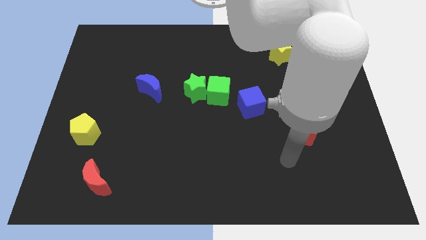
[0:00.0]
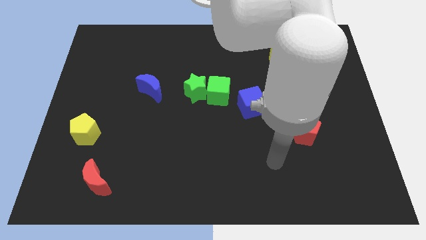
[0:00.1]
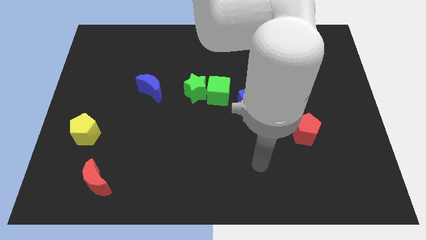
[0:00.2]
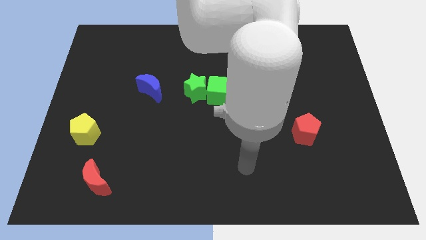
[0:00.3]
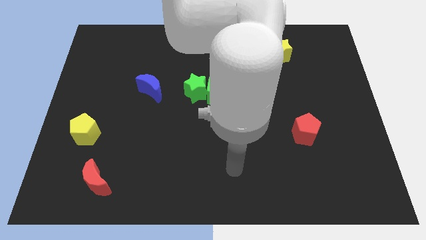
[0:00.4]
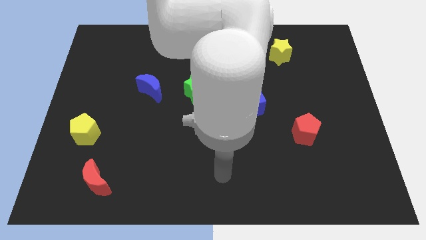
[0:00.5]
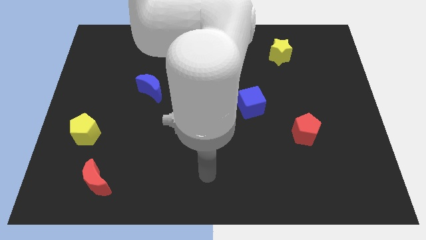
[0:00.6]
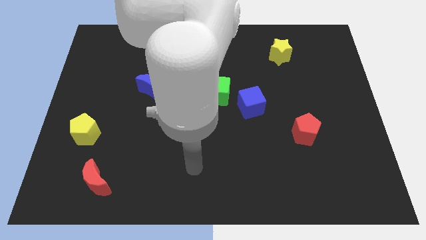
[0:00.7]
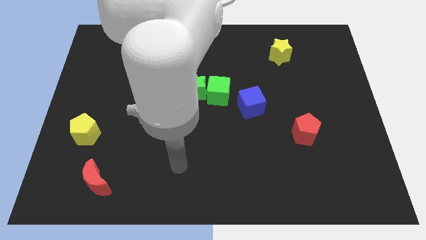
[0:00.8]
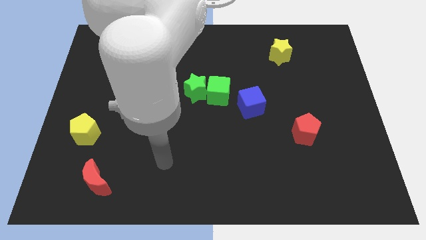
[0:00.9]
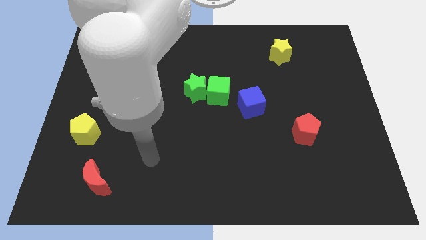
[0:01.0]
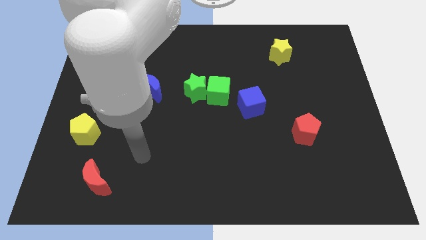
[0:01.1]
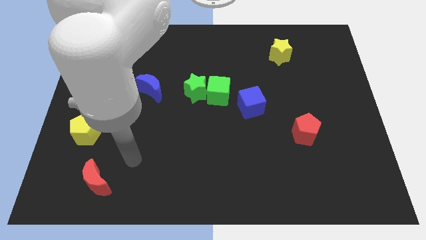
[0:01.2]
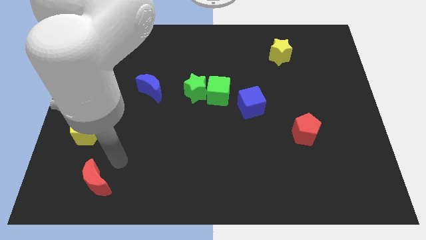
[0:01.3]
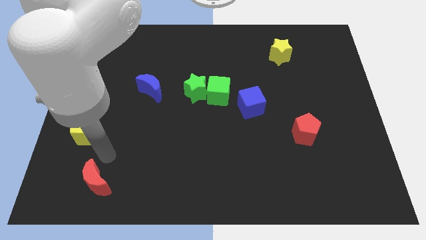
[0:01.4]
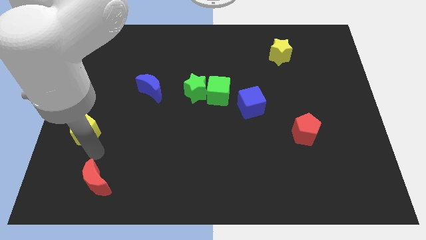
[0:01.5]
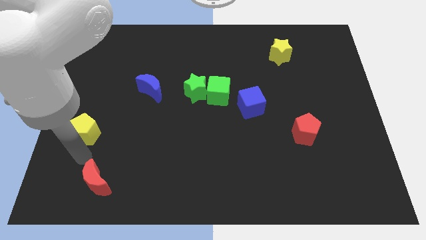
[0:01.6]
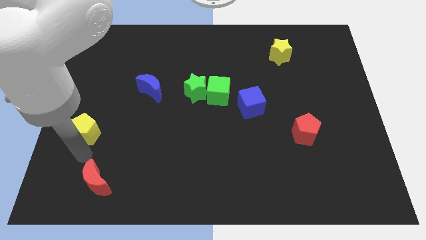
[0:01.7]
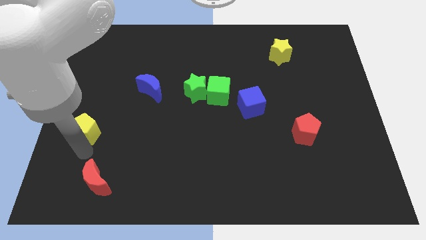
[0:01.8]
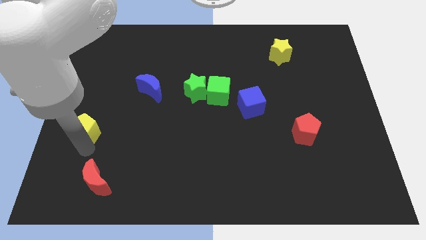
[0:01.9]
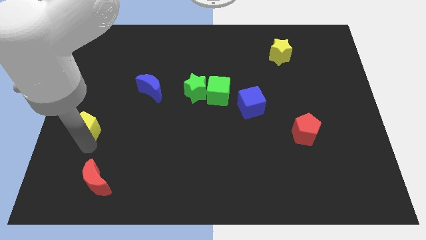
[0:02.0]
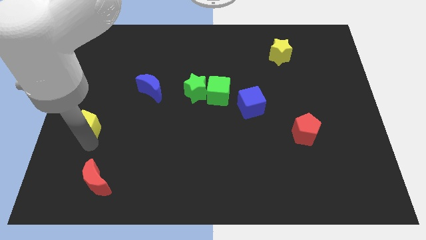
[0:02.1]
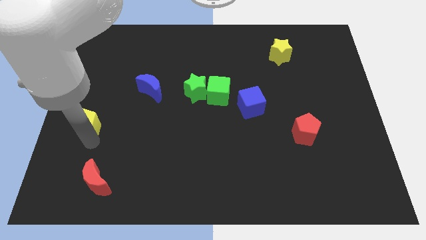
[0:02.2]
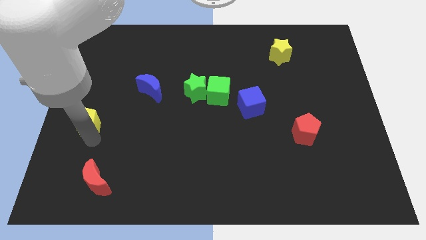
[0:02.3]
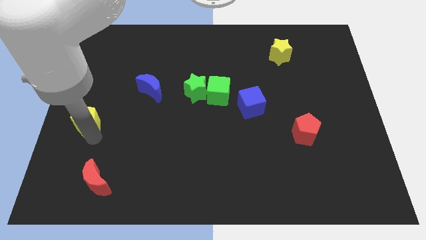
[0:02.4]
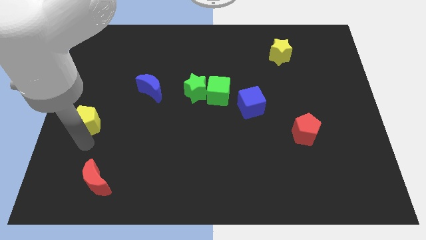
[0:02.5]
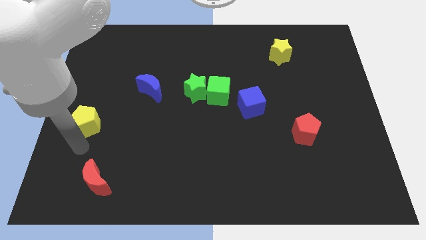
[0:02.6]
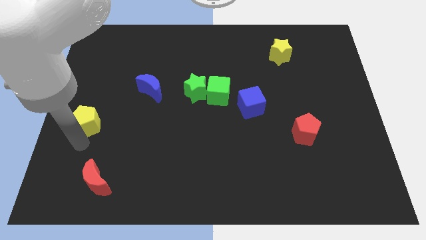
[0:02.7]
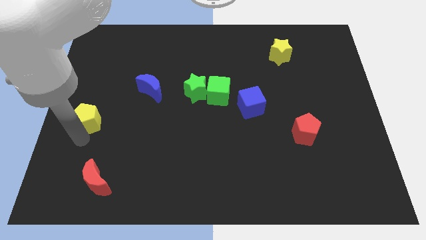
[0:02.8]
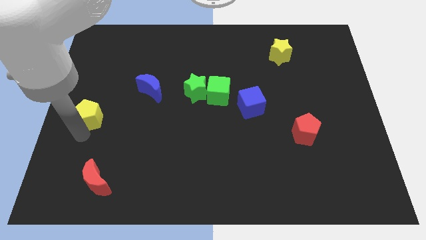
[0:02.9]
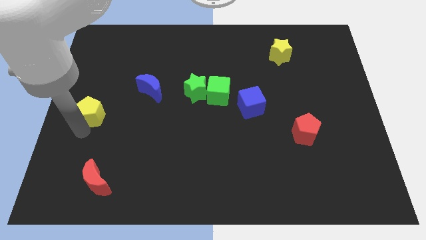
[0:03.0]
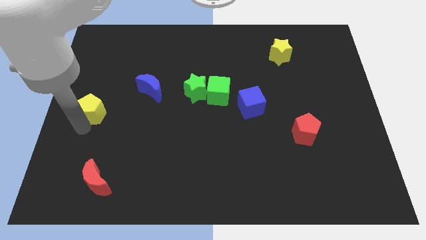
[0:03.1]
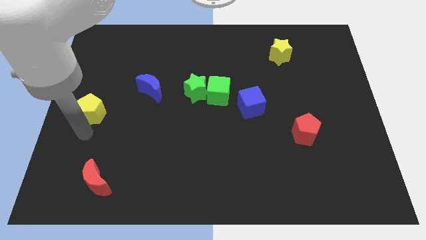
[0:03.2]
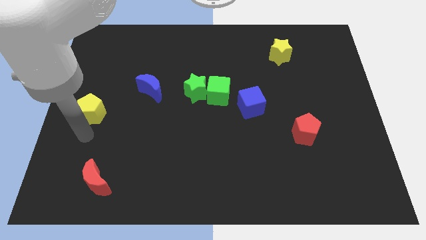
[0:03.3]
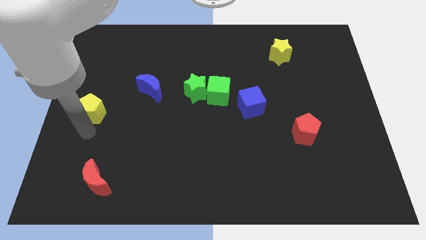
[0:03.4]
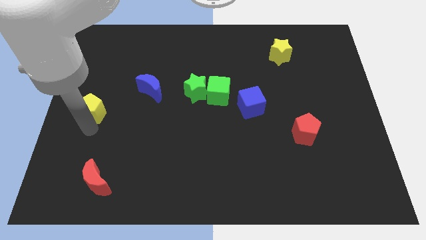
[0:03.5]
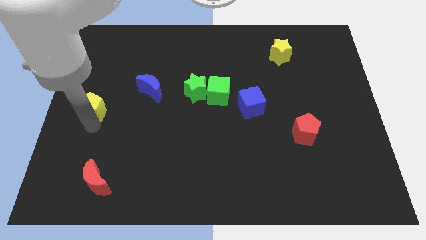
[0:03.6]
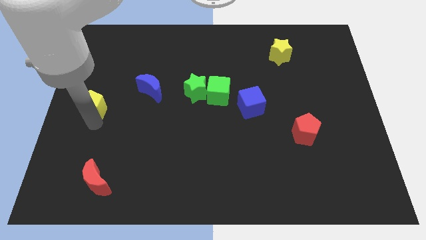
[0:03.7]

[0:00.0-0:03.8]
move the yellow pentagon up a little

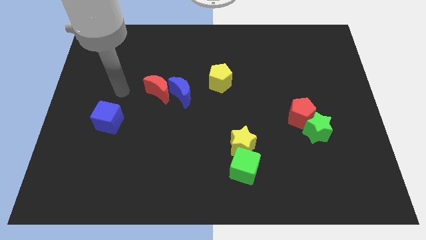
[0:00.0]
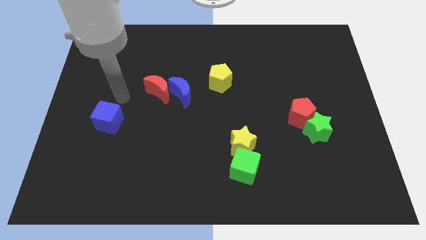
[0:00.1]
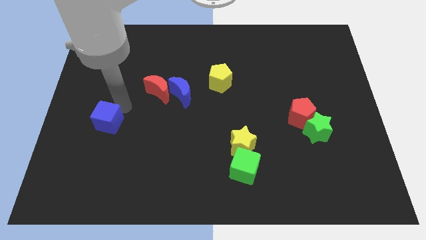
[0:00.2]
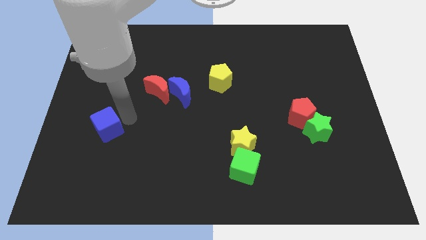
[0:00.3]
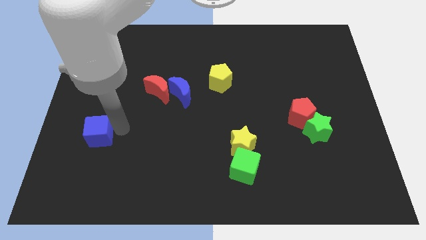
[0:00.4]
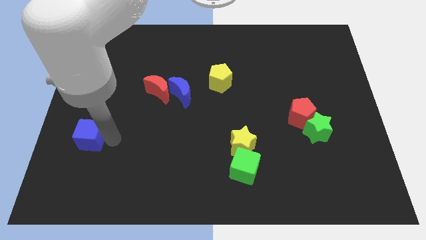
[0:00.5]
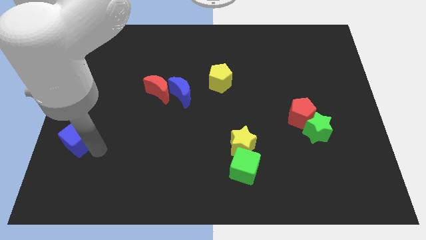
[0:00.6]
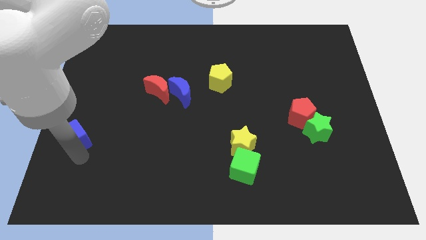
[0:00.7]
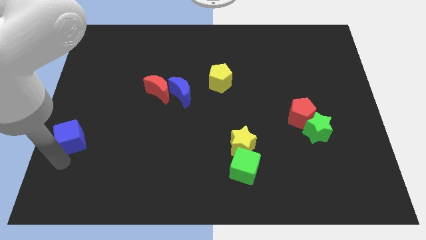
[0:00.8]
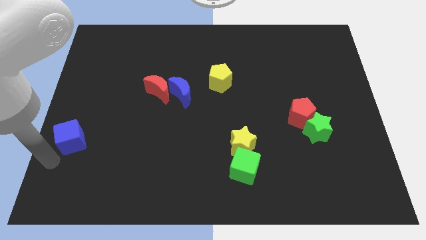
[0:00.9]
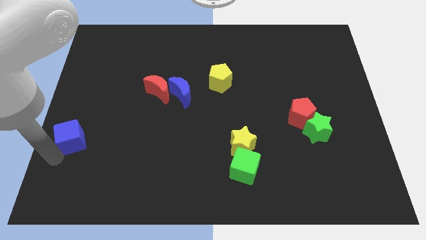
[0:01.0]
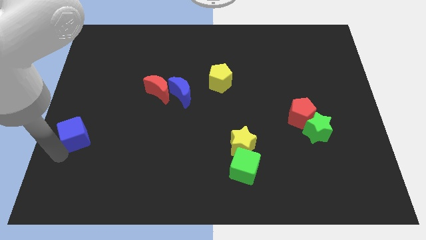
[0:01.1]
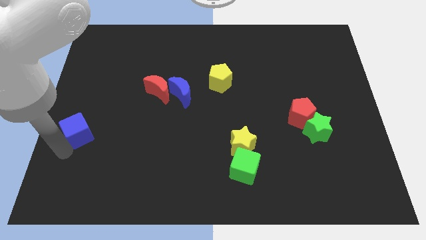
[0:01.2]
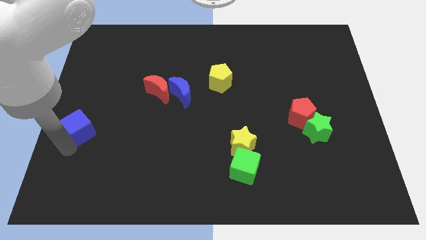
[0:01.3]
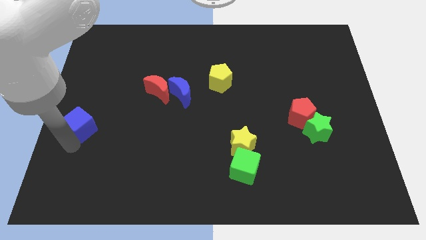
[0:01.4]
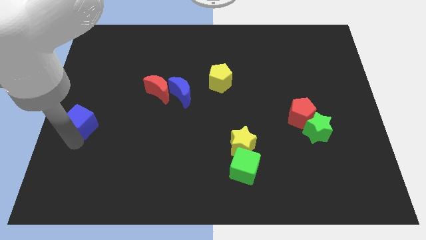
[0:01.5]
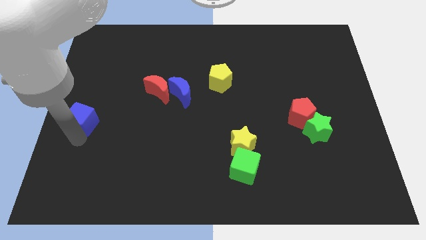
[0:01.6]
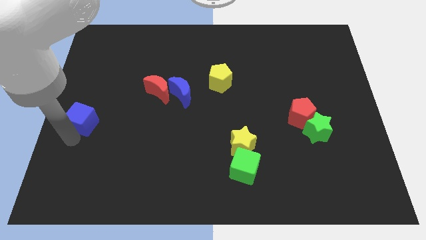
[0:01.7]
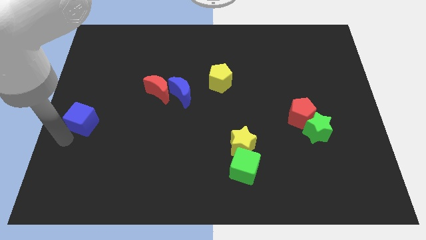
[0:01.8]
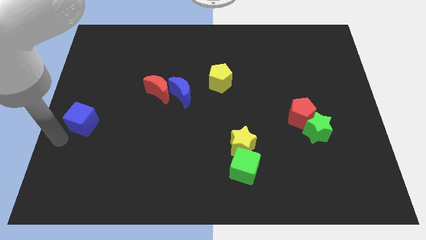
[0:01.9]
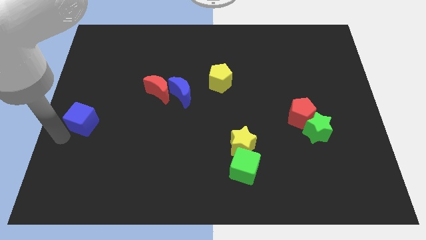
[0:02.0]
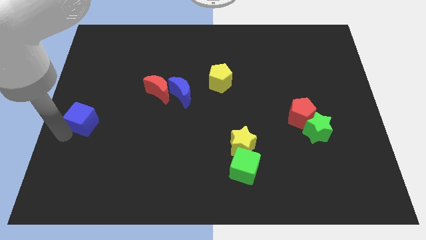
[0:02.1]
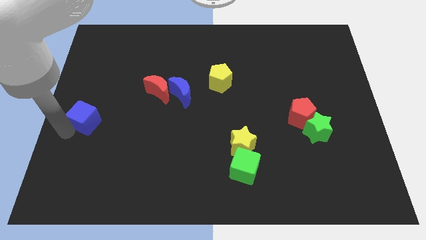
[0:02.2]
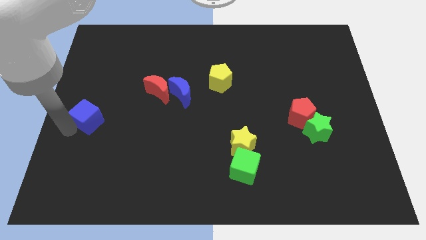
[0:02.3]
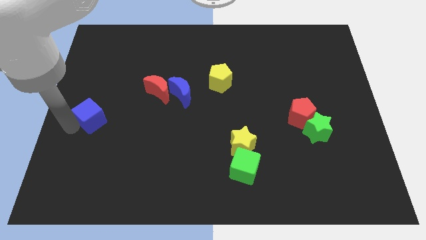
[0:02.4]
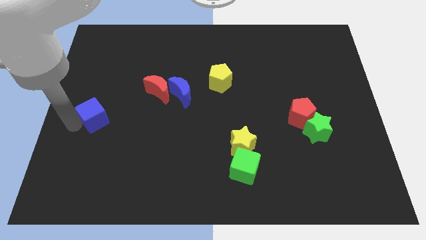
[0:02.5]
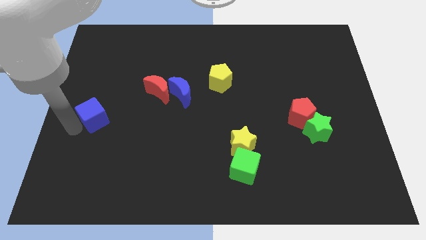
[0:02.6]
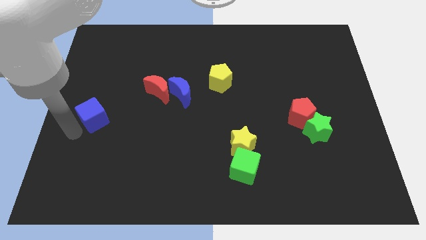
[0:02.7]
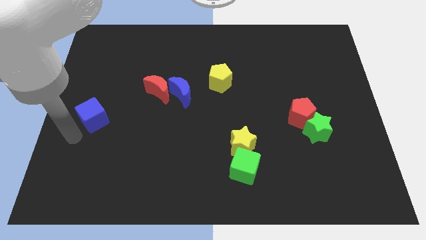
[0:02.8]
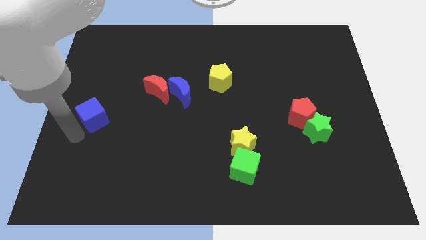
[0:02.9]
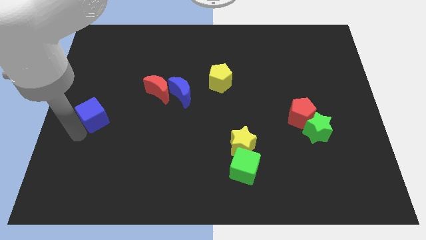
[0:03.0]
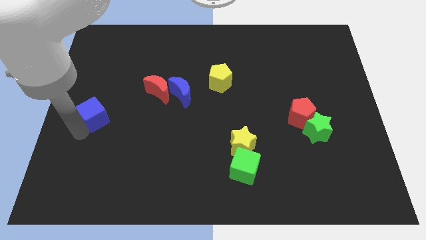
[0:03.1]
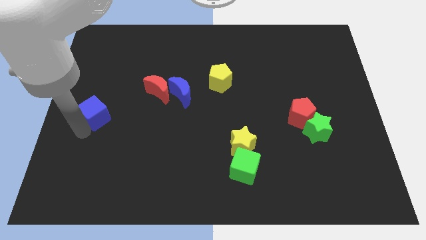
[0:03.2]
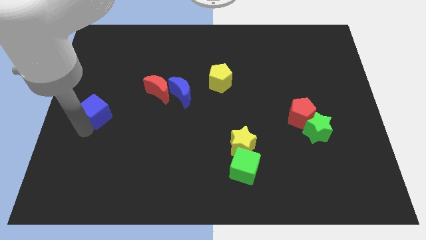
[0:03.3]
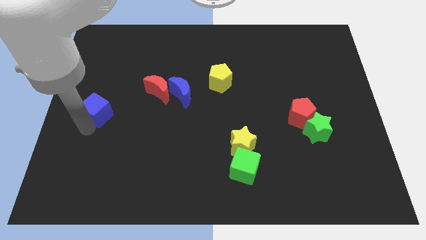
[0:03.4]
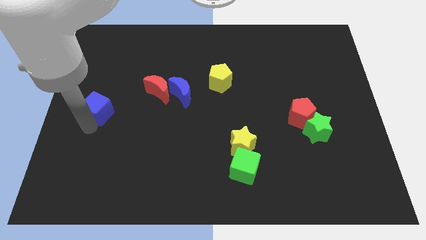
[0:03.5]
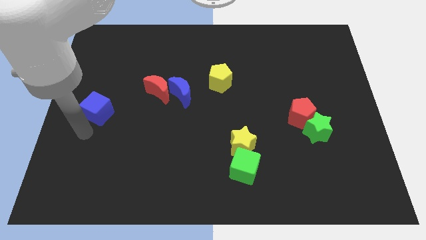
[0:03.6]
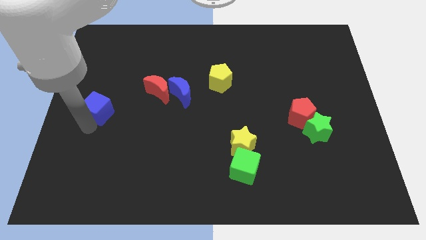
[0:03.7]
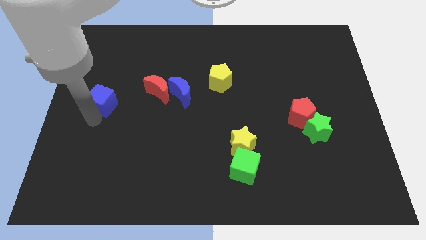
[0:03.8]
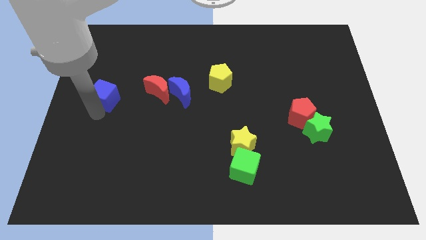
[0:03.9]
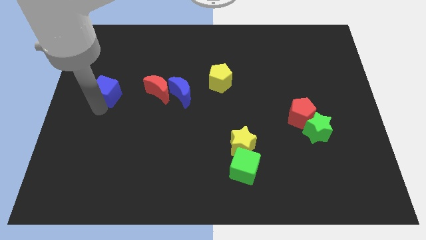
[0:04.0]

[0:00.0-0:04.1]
push the blue cube a little bit upwards
